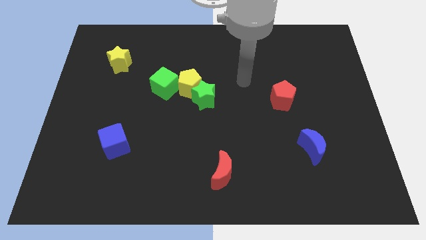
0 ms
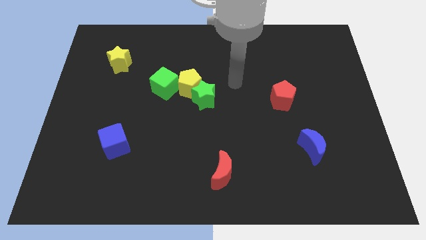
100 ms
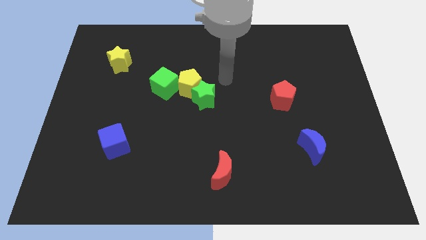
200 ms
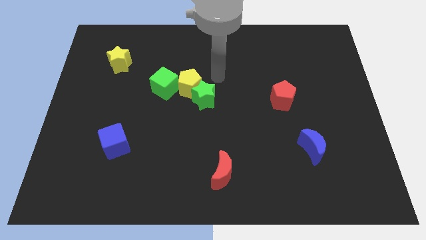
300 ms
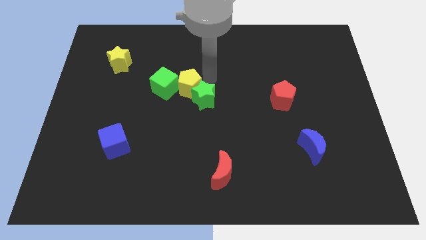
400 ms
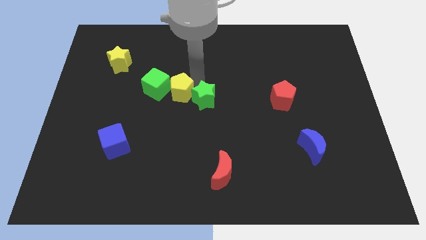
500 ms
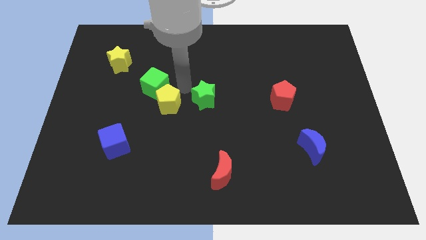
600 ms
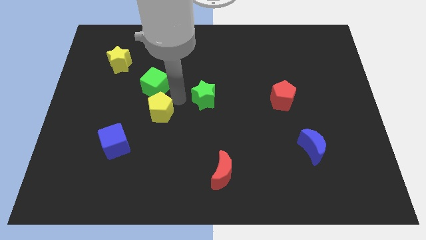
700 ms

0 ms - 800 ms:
pull the green star apart from the yellow pentagon

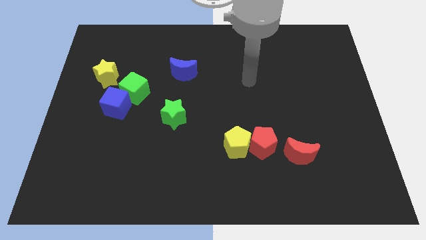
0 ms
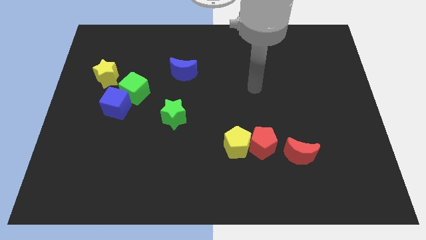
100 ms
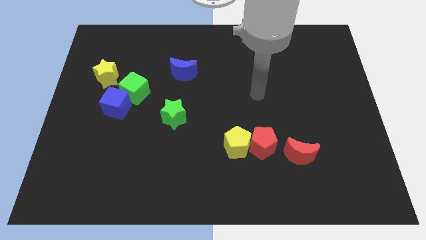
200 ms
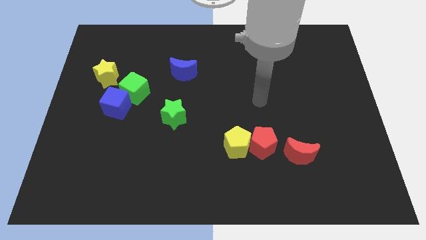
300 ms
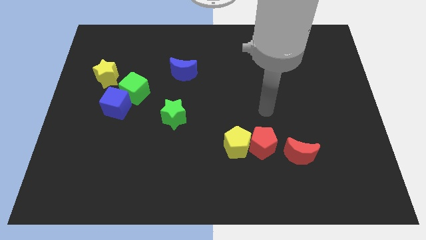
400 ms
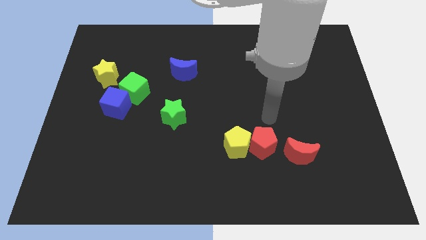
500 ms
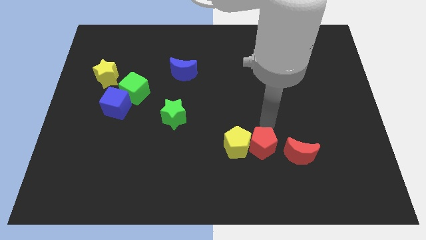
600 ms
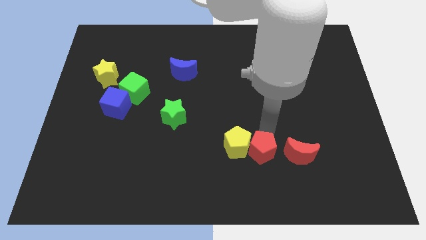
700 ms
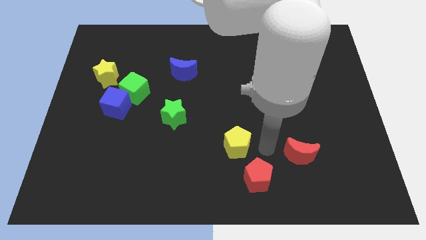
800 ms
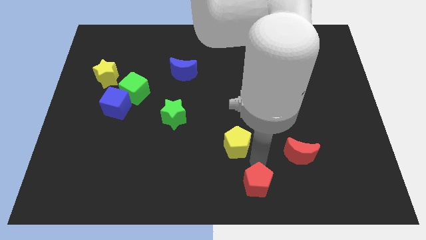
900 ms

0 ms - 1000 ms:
pull the yellow pentagon apart from the red pentagon

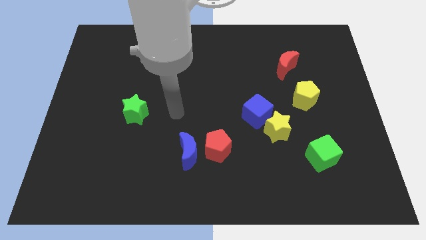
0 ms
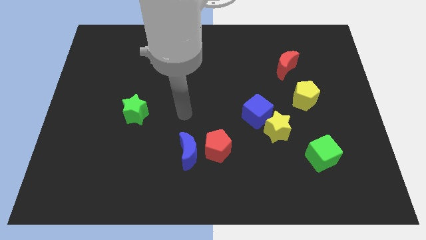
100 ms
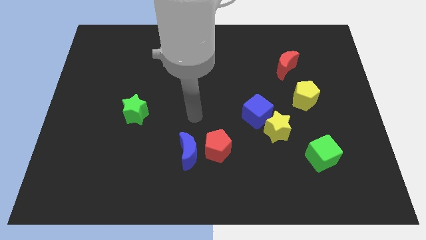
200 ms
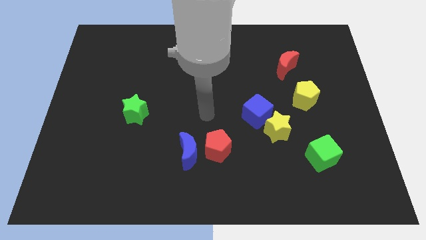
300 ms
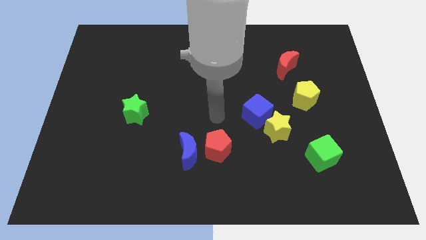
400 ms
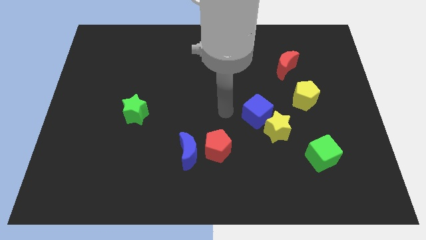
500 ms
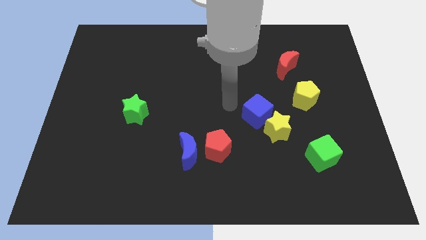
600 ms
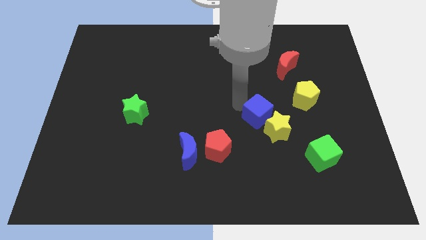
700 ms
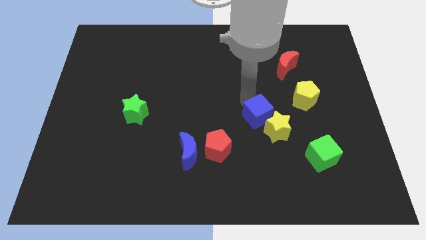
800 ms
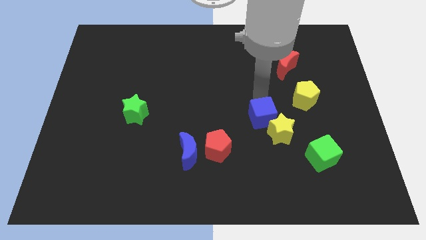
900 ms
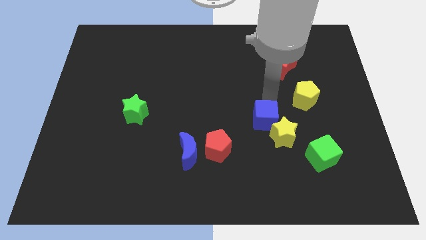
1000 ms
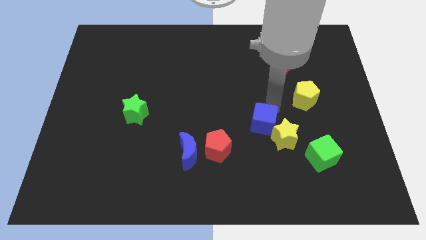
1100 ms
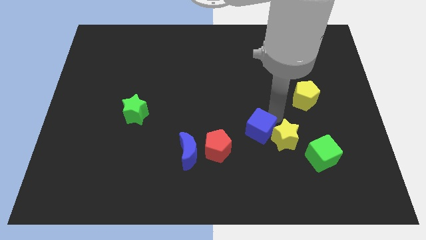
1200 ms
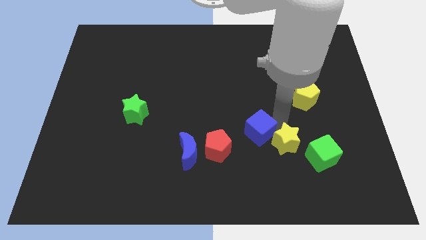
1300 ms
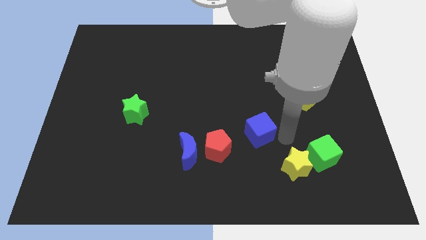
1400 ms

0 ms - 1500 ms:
pull the blue cube apart from the yellow star

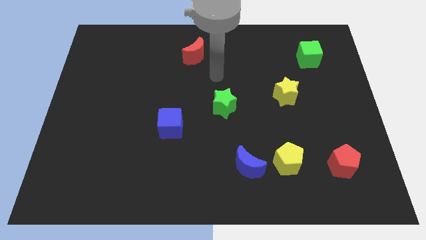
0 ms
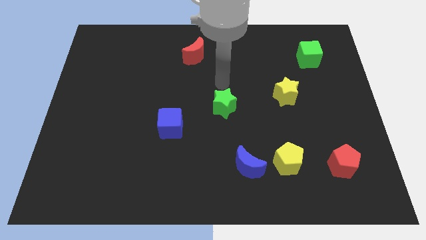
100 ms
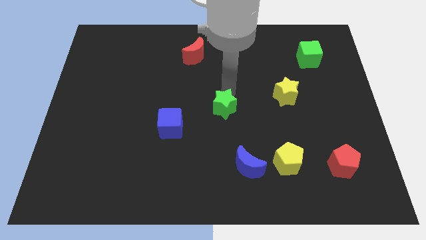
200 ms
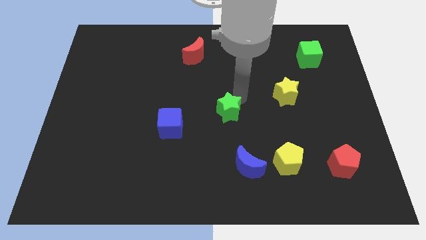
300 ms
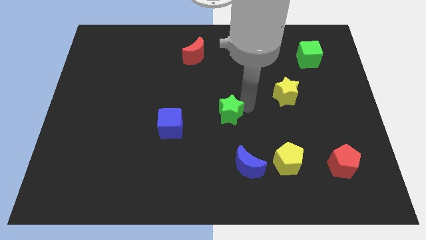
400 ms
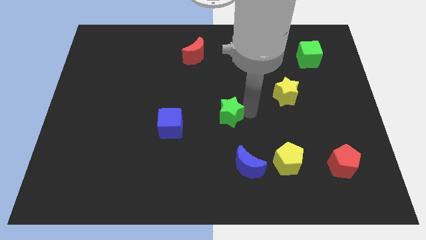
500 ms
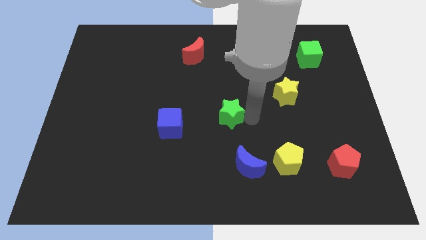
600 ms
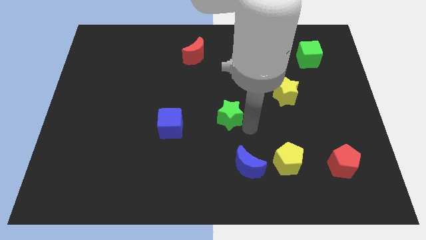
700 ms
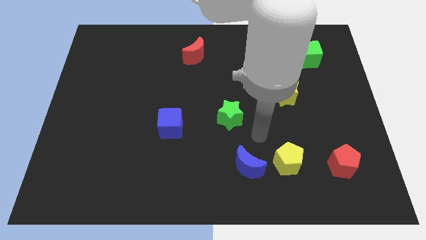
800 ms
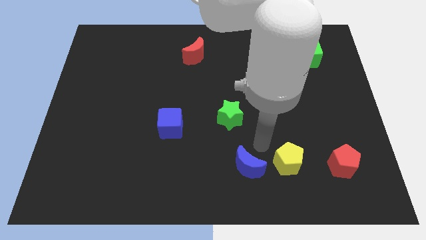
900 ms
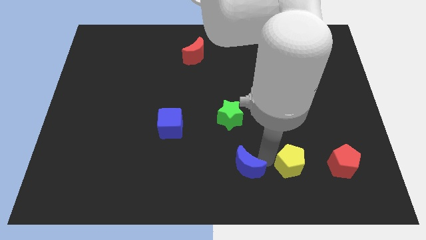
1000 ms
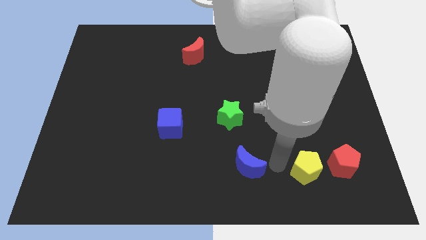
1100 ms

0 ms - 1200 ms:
separate the blue moon from the yellow pentagon

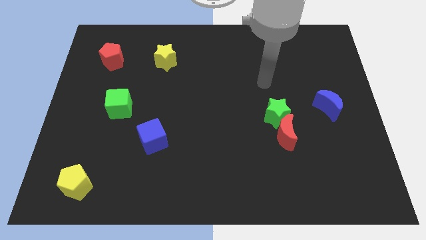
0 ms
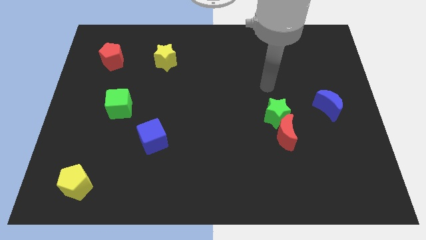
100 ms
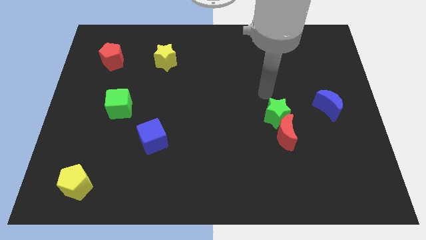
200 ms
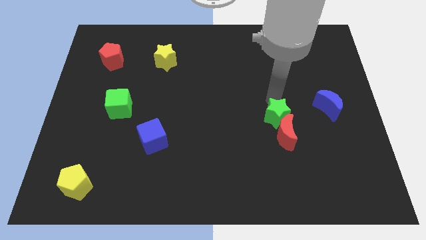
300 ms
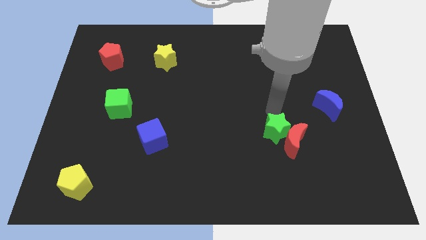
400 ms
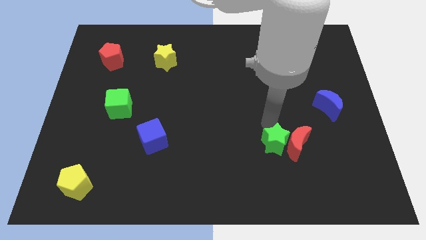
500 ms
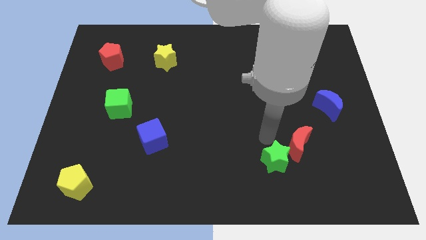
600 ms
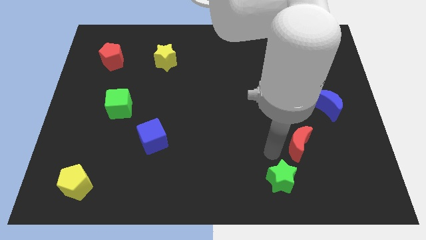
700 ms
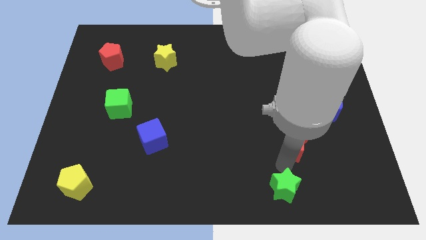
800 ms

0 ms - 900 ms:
pull the red moon apart from the green star

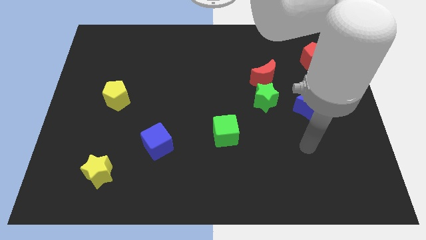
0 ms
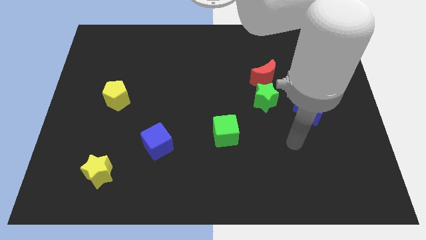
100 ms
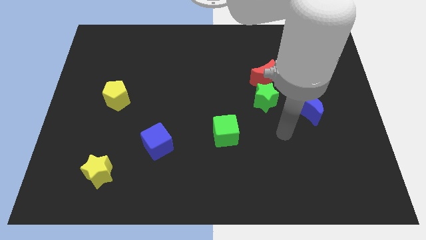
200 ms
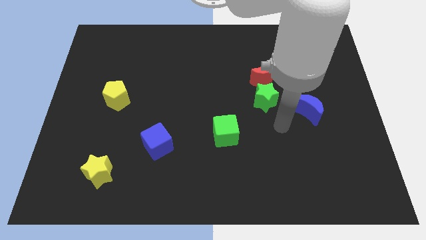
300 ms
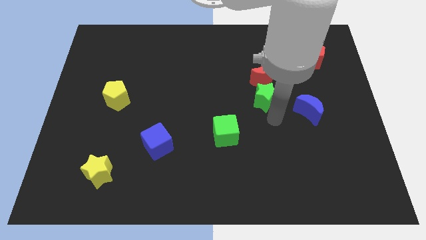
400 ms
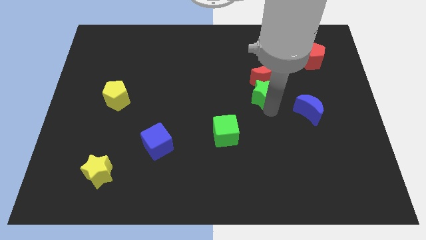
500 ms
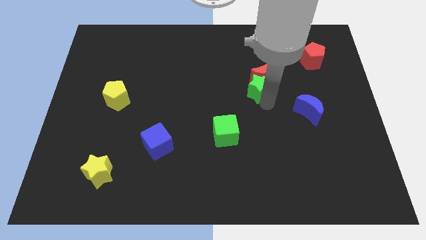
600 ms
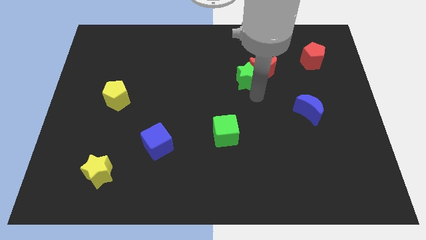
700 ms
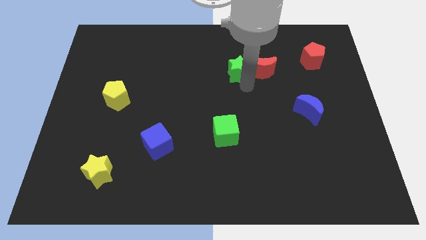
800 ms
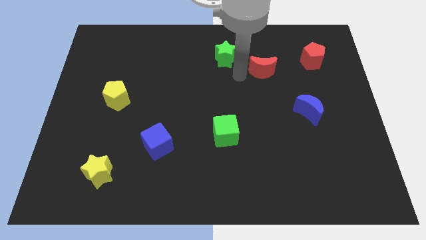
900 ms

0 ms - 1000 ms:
separate the red moon from the green star

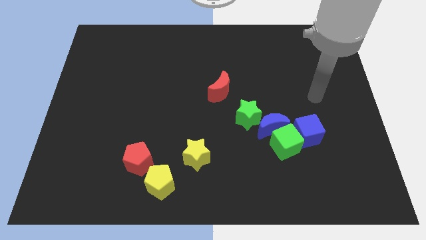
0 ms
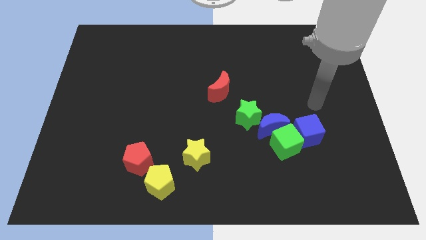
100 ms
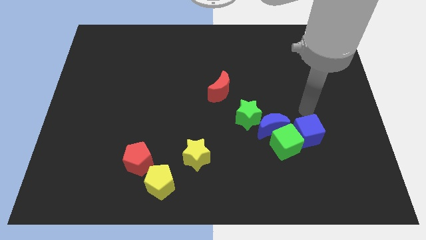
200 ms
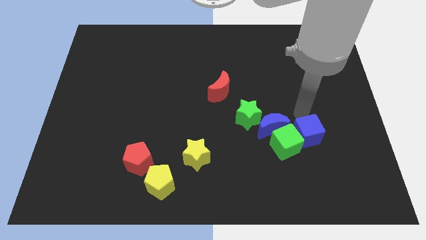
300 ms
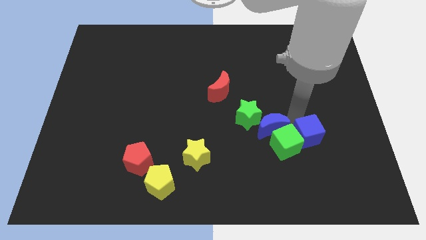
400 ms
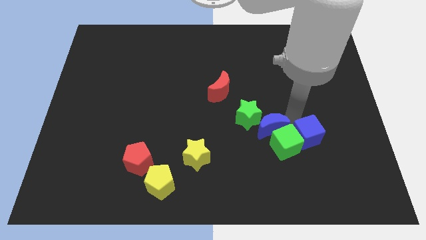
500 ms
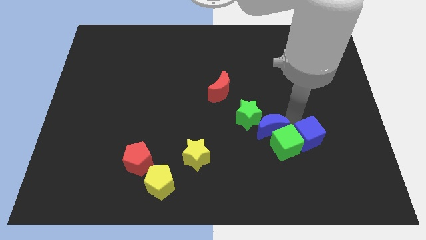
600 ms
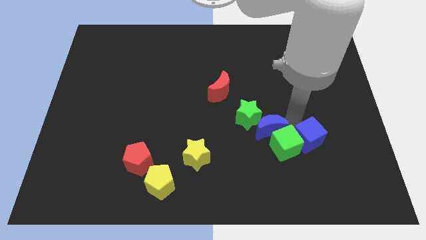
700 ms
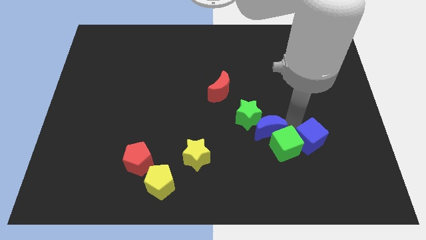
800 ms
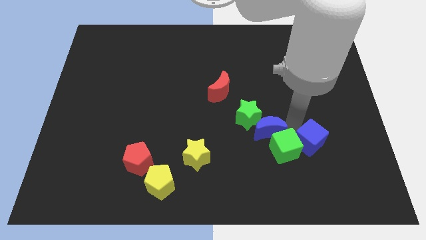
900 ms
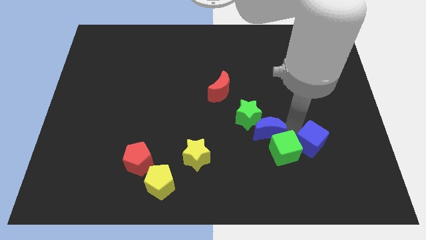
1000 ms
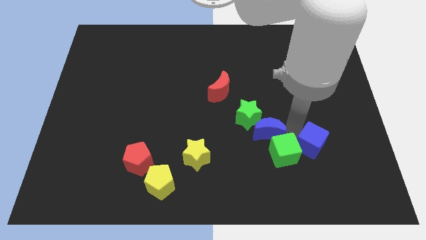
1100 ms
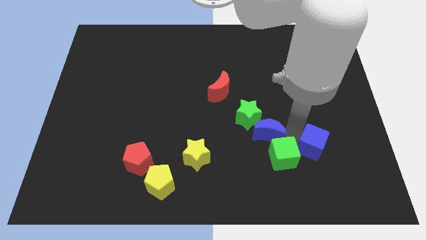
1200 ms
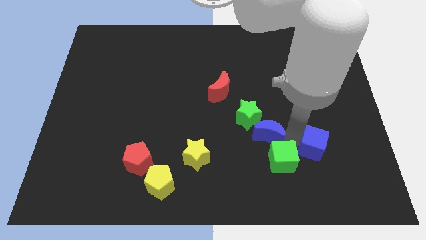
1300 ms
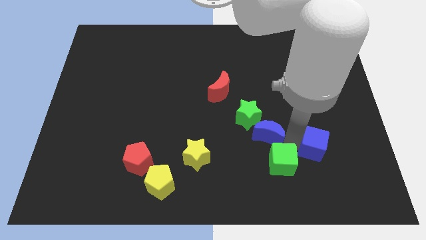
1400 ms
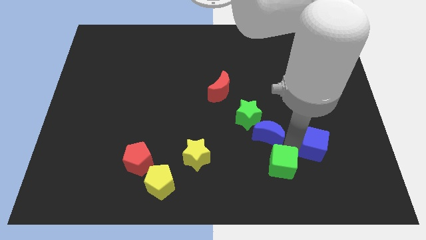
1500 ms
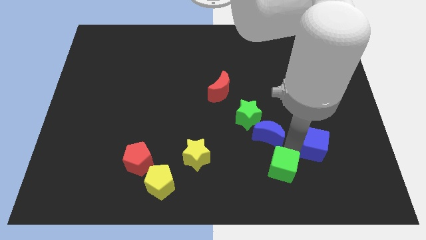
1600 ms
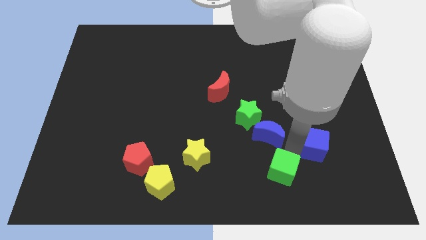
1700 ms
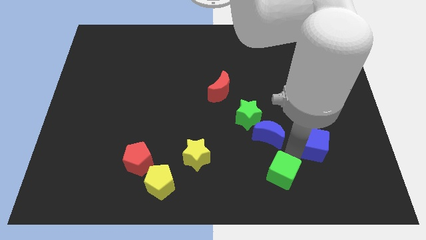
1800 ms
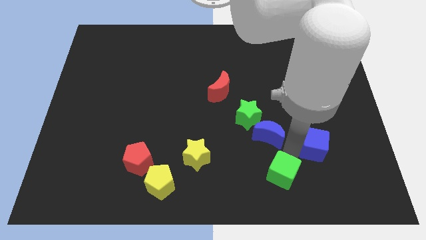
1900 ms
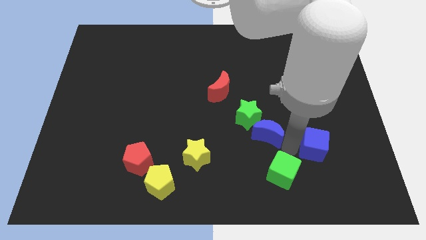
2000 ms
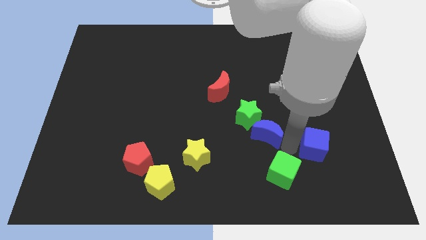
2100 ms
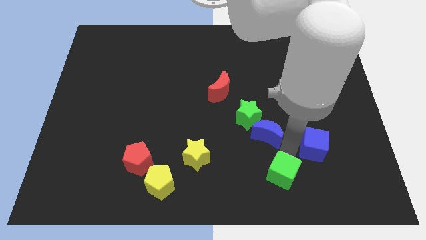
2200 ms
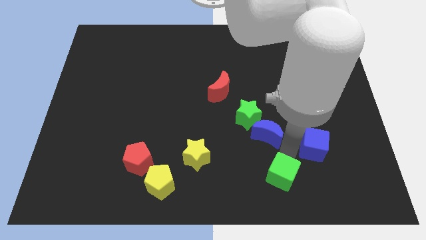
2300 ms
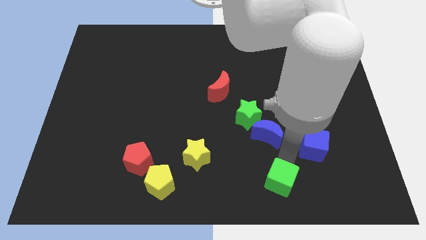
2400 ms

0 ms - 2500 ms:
move the green cube away from the blue moon and blue cube

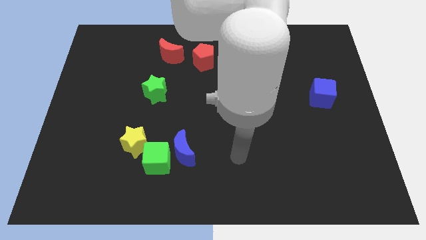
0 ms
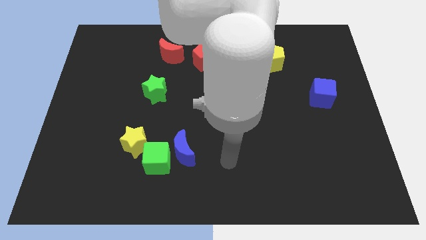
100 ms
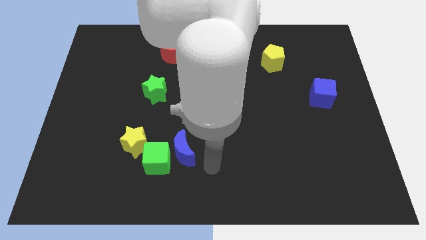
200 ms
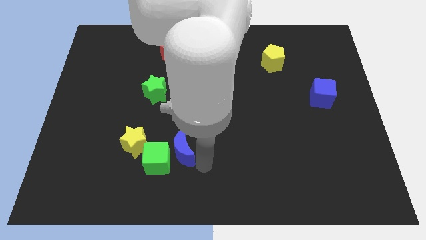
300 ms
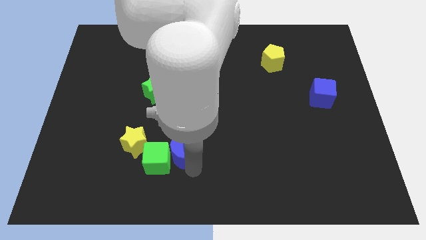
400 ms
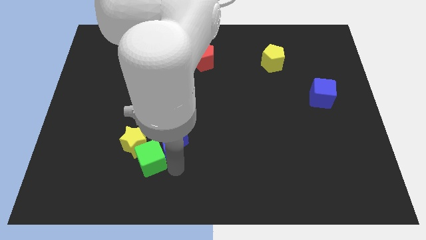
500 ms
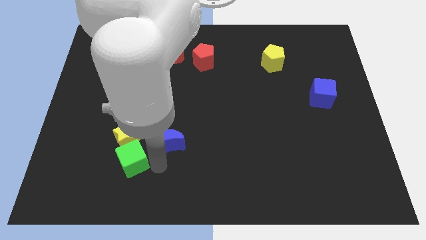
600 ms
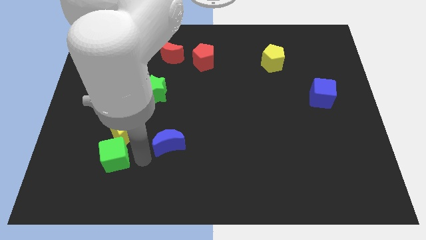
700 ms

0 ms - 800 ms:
separate the blue moon from the green cube
